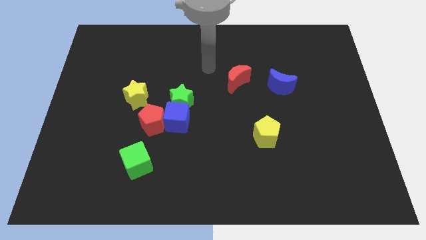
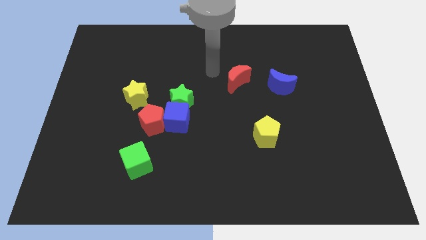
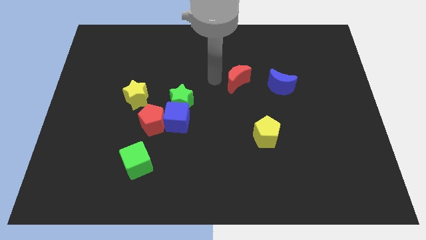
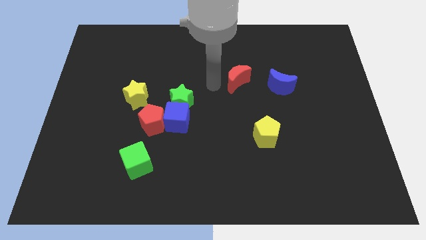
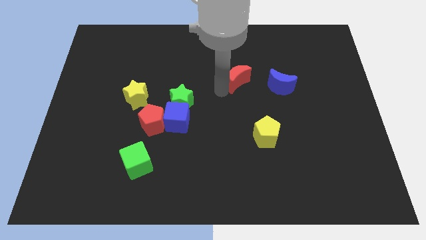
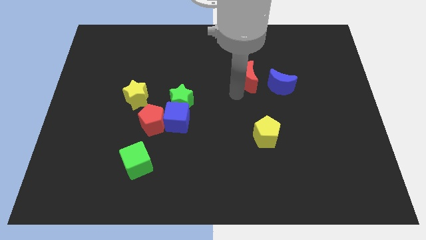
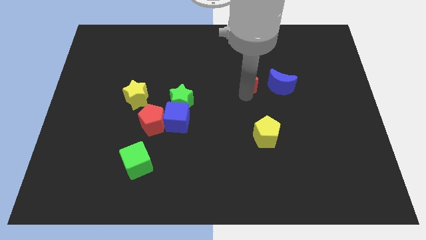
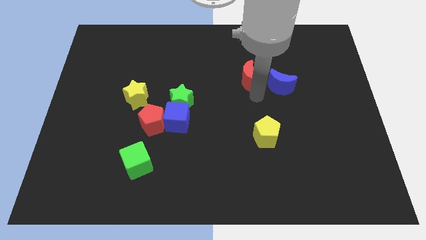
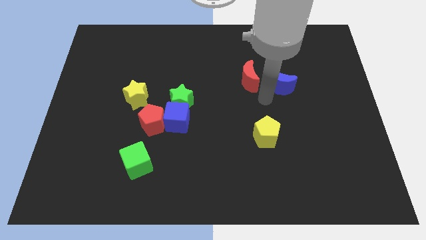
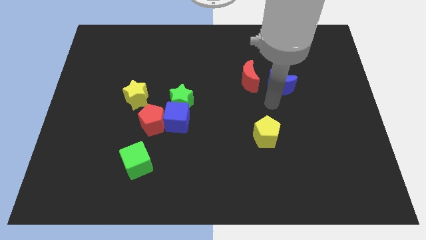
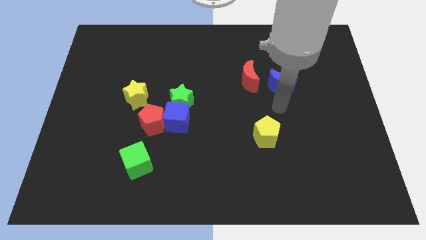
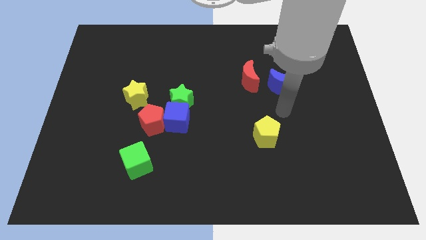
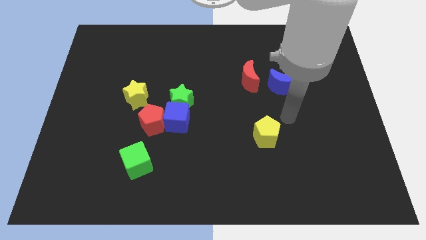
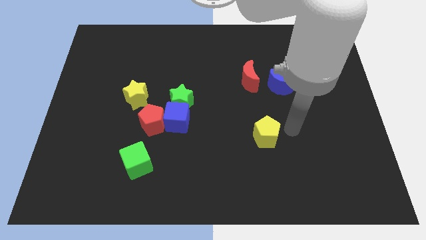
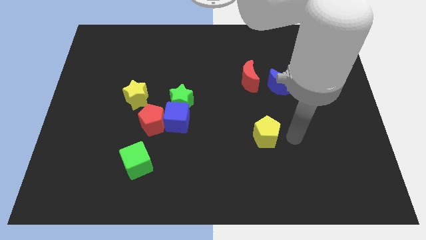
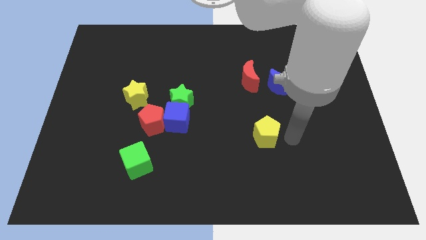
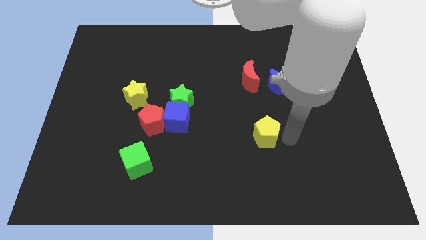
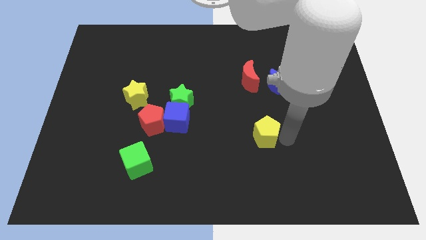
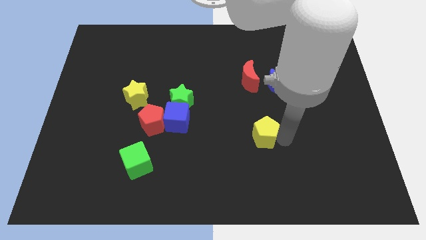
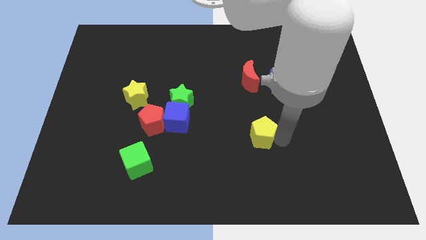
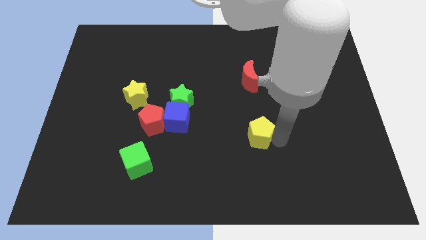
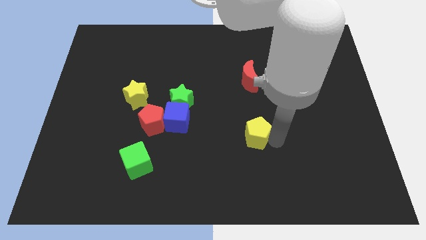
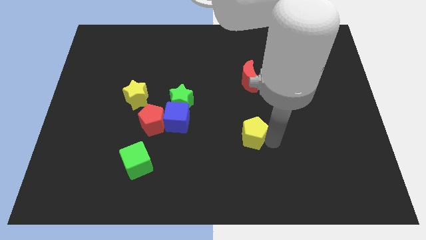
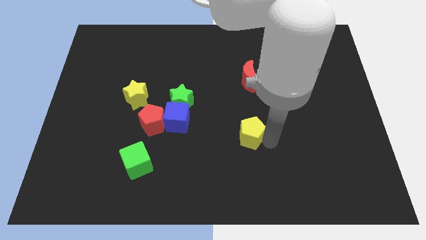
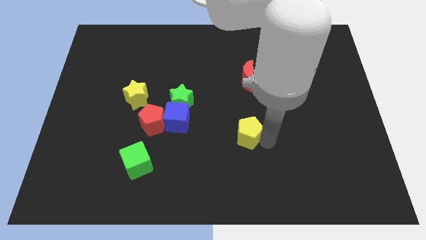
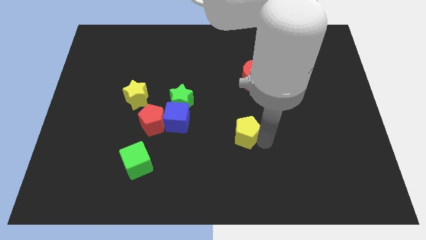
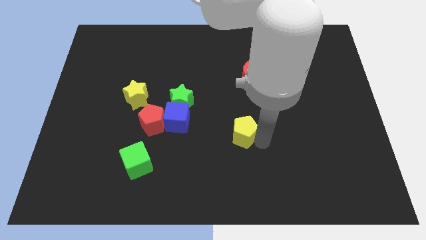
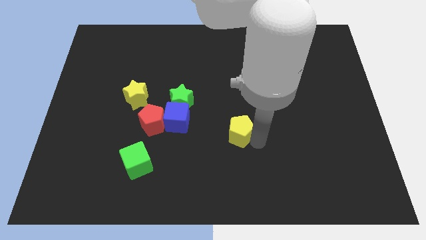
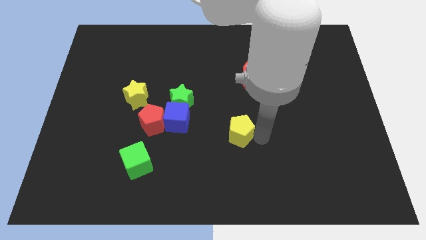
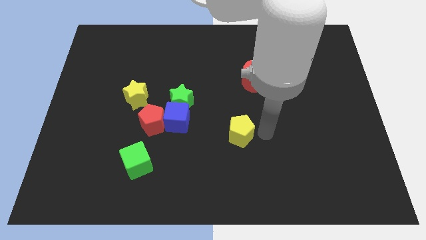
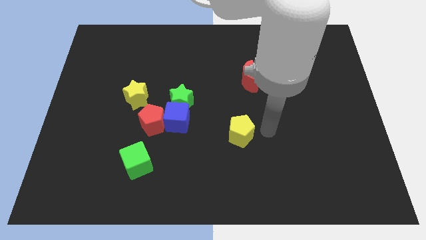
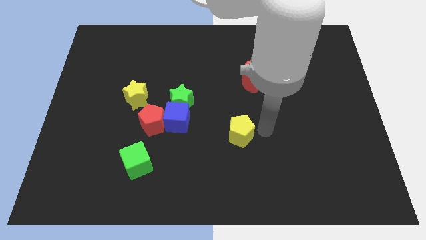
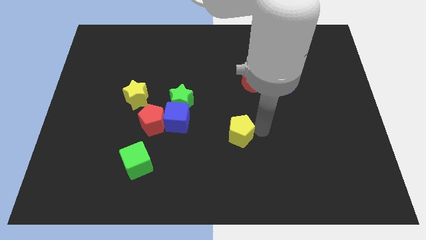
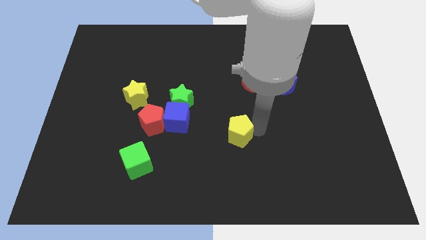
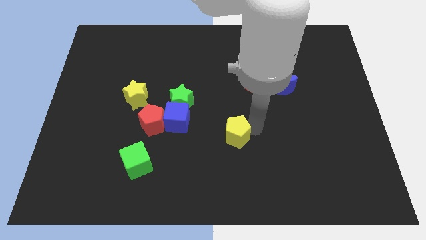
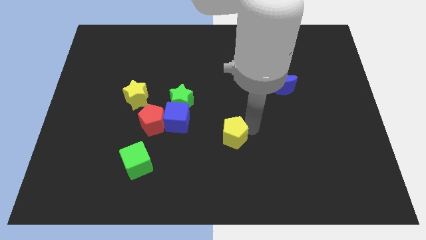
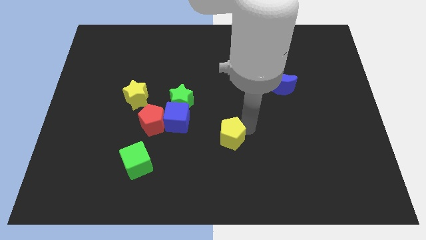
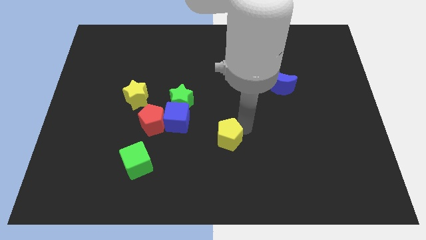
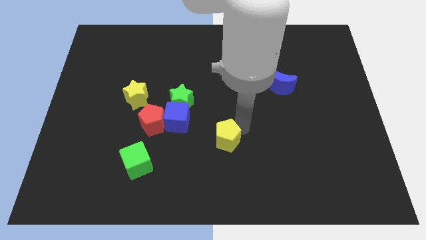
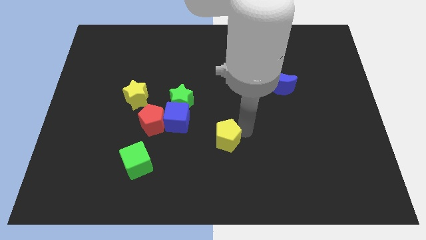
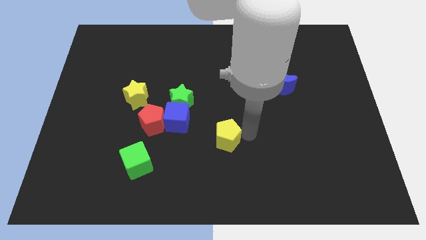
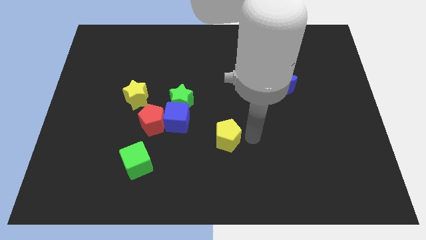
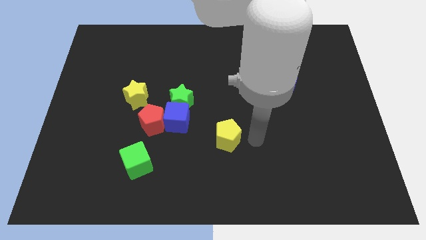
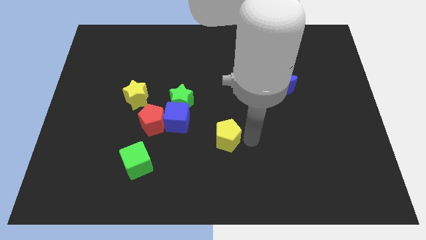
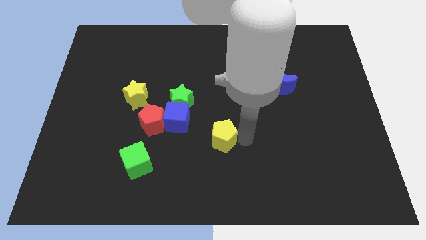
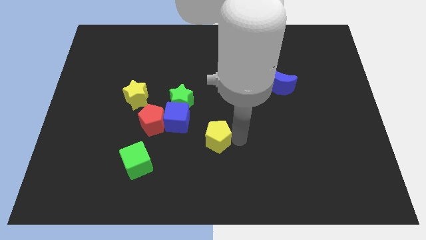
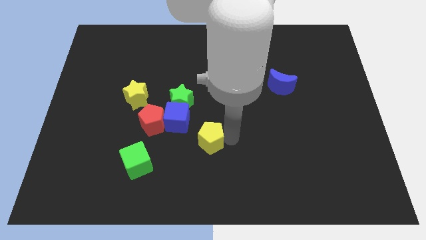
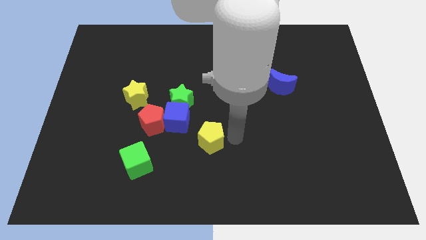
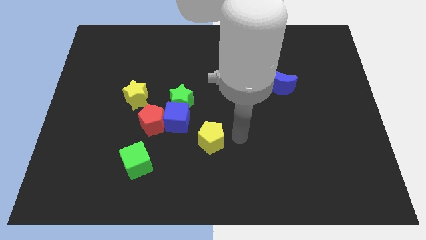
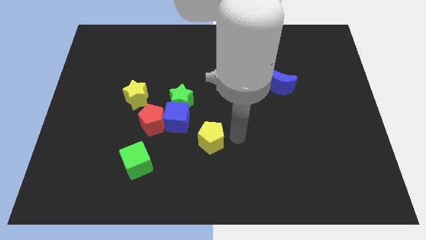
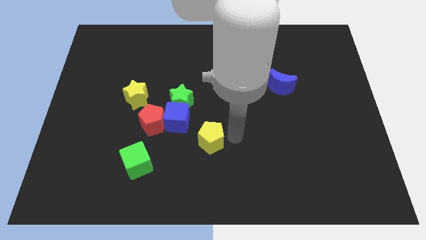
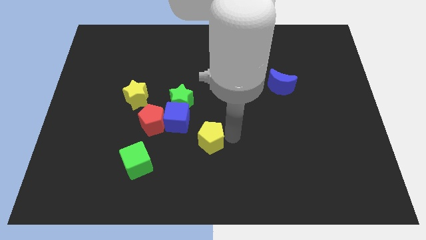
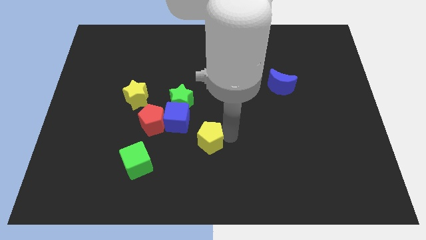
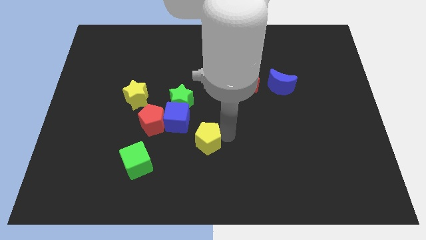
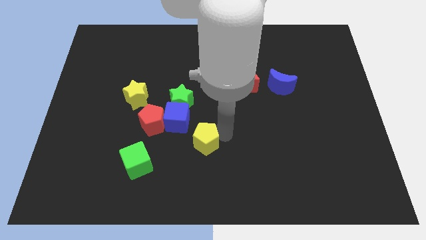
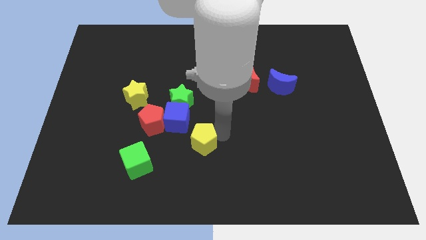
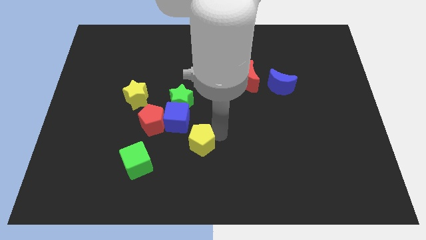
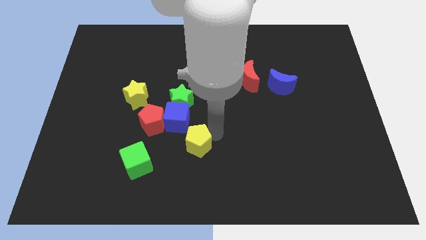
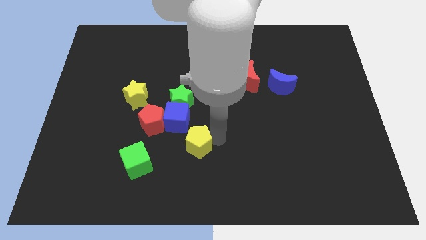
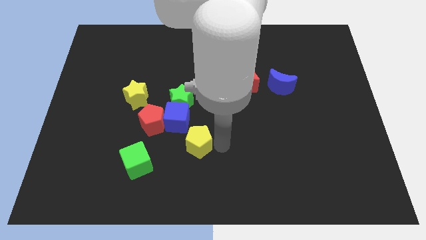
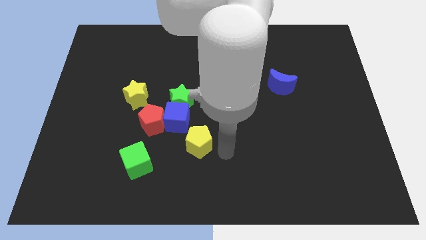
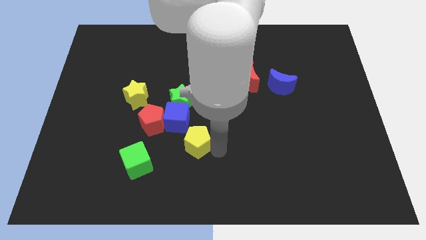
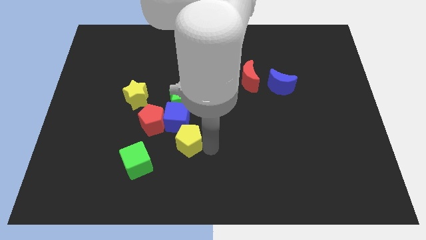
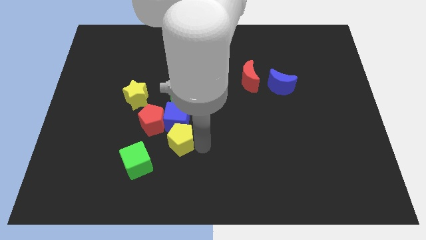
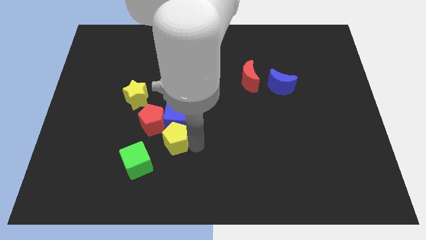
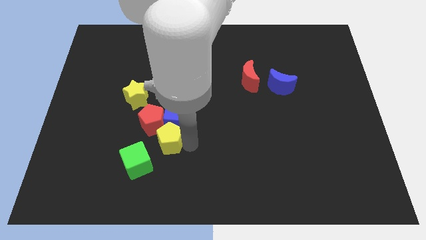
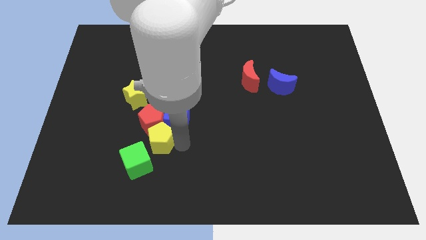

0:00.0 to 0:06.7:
move the yellow pentagon to the red pentagon
